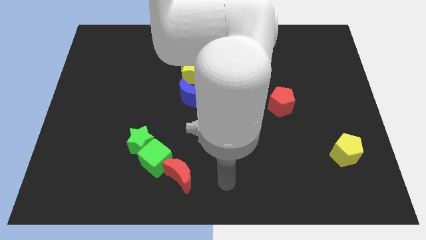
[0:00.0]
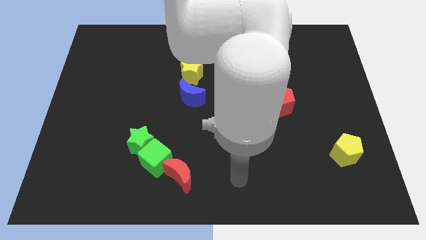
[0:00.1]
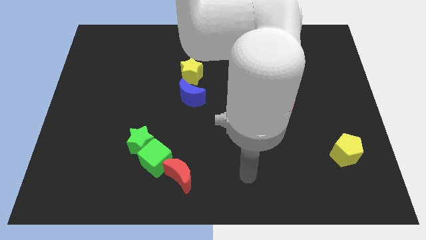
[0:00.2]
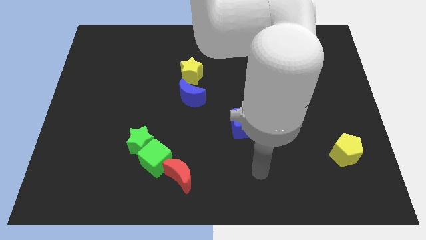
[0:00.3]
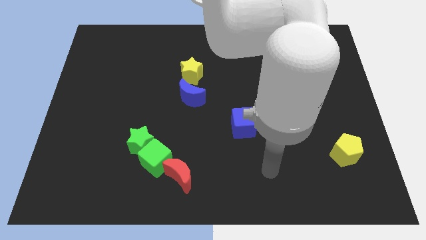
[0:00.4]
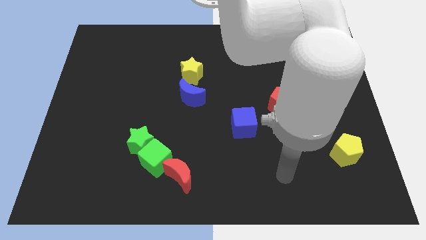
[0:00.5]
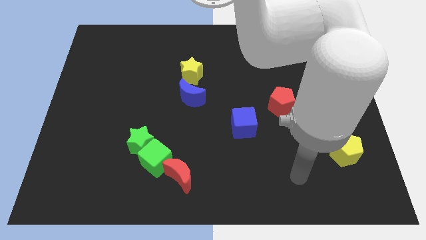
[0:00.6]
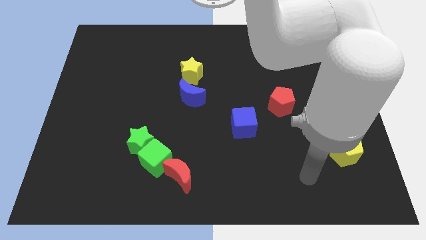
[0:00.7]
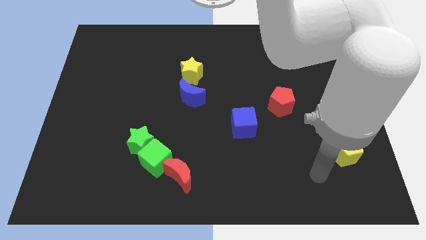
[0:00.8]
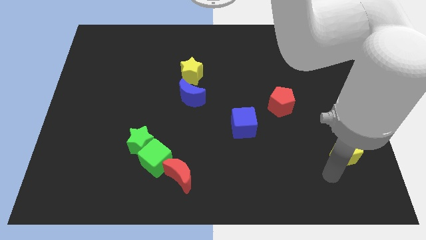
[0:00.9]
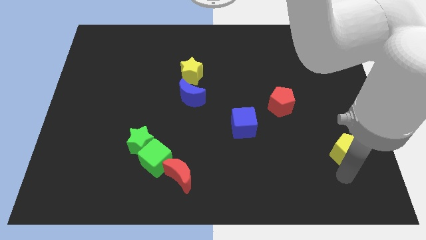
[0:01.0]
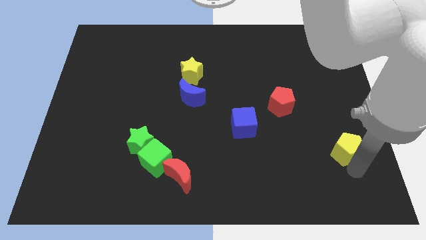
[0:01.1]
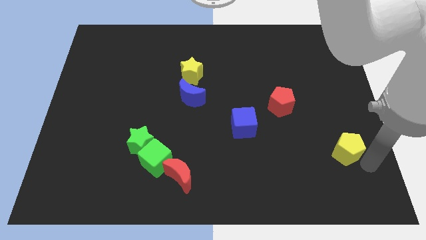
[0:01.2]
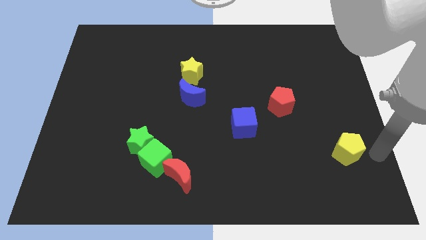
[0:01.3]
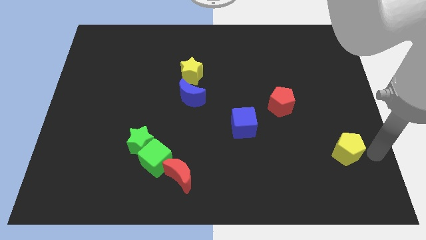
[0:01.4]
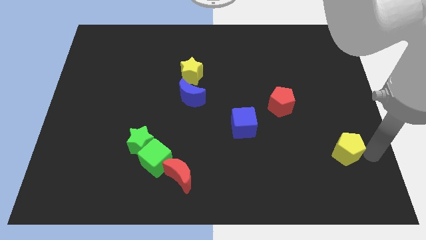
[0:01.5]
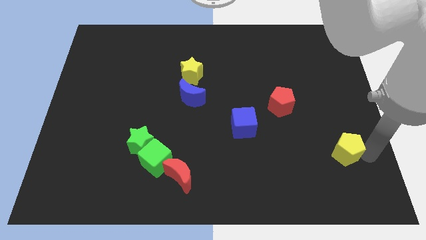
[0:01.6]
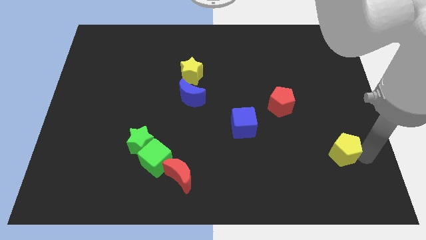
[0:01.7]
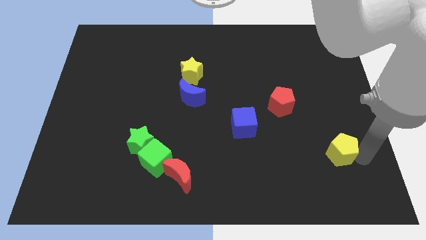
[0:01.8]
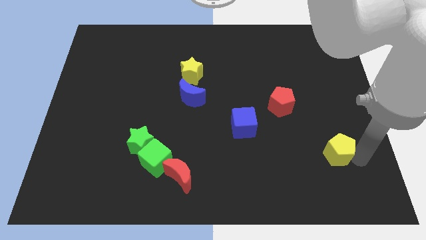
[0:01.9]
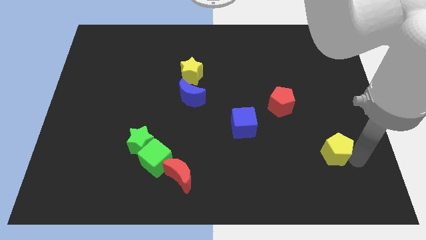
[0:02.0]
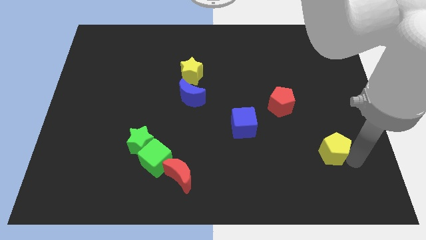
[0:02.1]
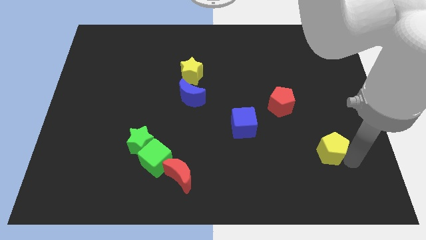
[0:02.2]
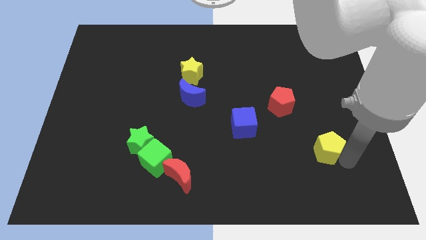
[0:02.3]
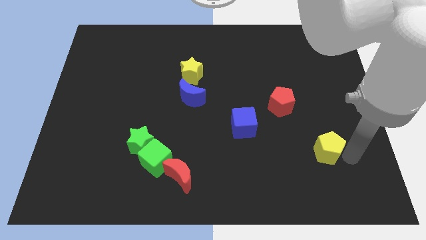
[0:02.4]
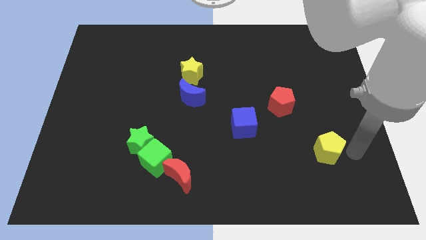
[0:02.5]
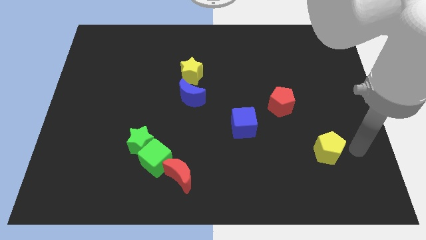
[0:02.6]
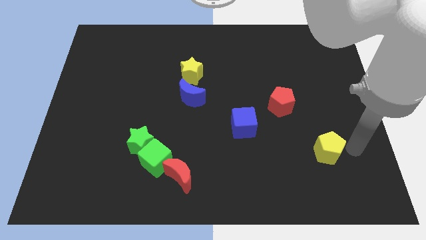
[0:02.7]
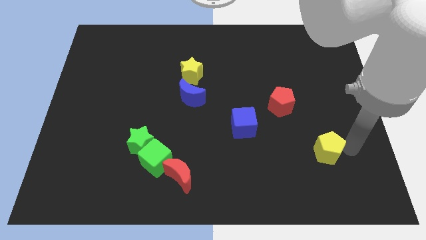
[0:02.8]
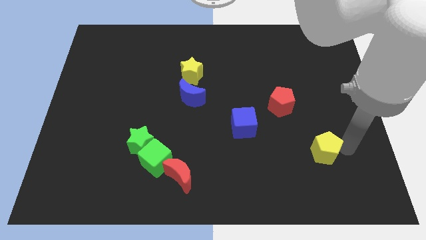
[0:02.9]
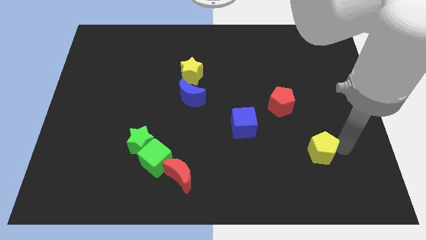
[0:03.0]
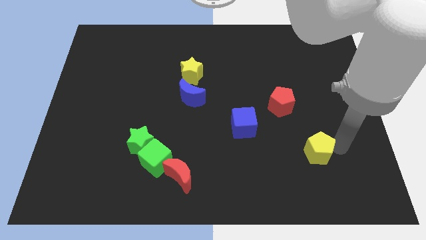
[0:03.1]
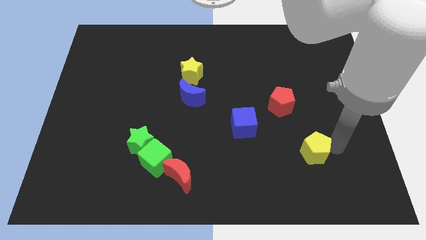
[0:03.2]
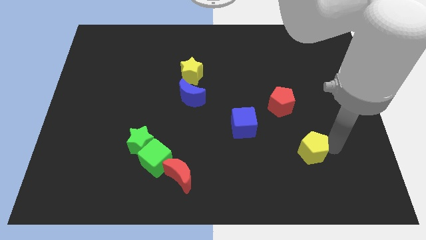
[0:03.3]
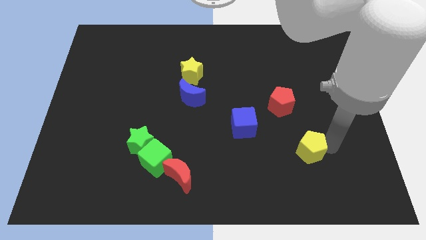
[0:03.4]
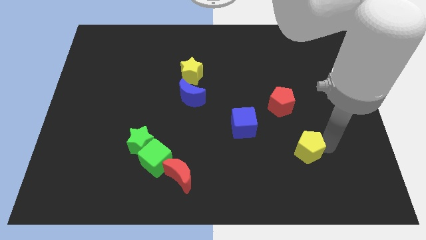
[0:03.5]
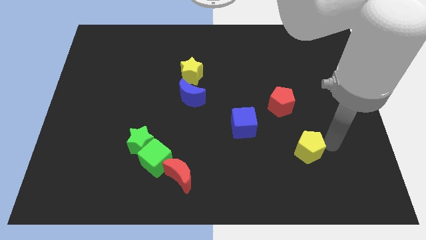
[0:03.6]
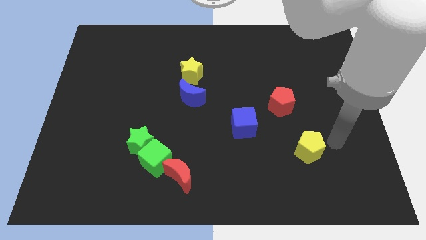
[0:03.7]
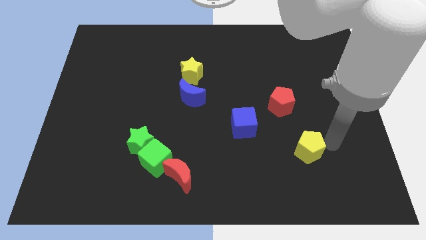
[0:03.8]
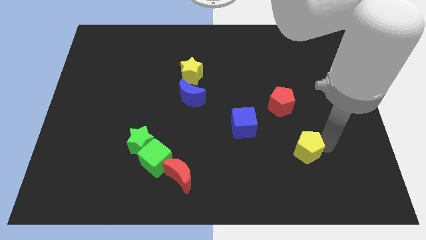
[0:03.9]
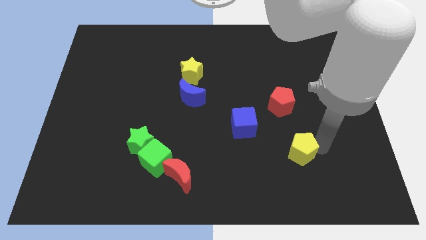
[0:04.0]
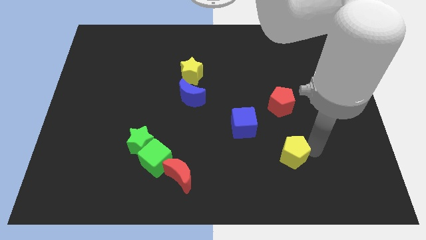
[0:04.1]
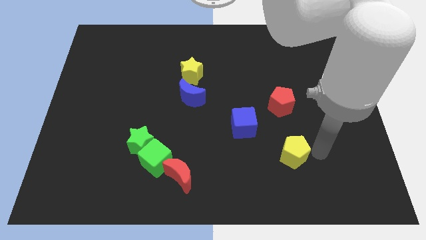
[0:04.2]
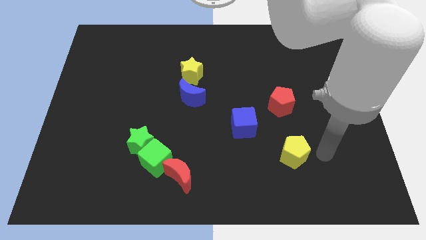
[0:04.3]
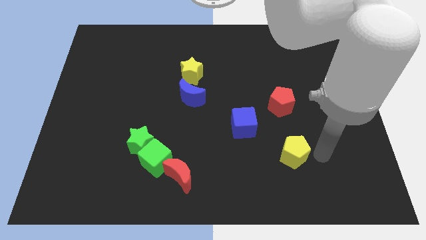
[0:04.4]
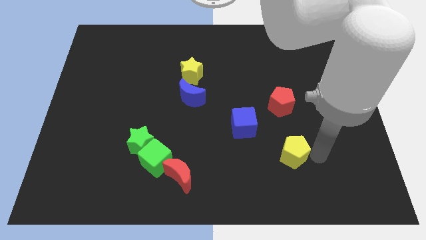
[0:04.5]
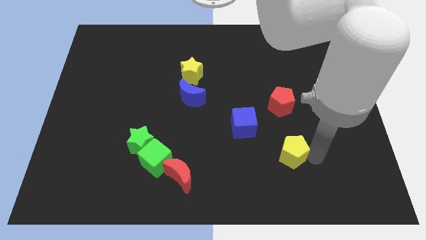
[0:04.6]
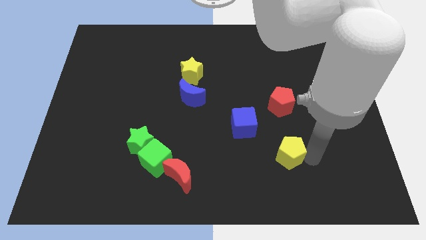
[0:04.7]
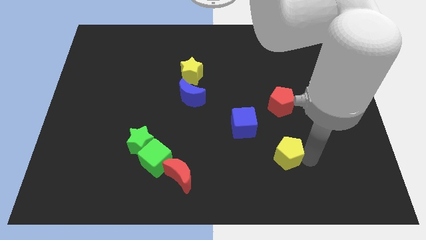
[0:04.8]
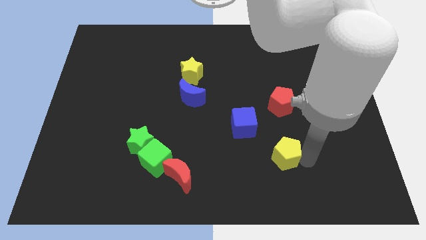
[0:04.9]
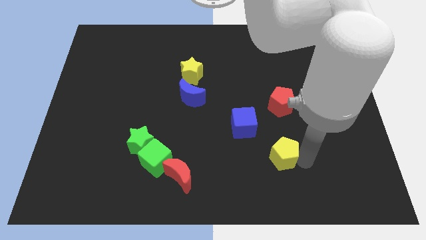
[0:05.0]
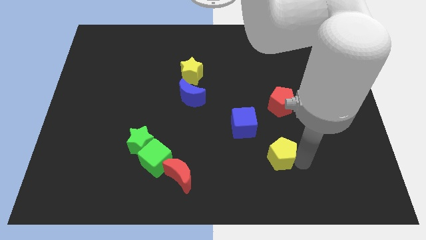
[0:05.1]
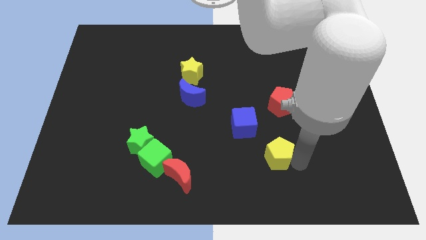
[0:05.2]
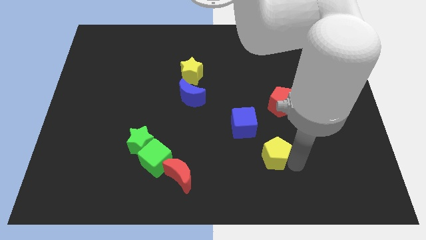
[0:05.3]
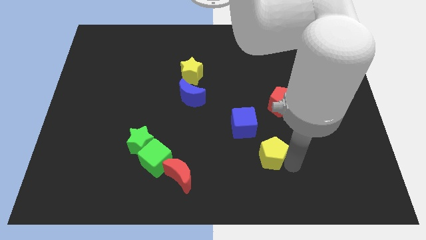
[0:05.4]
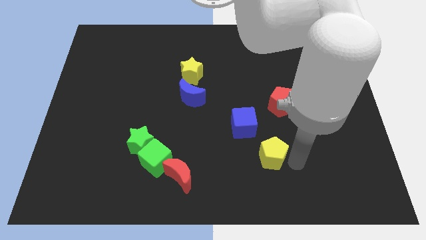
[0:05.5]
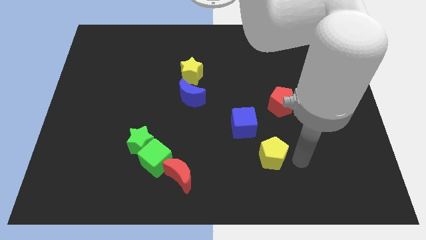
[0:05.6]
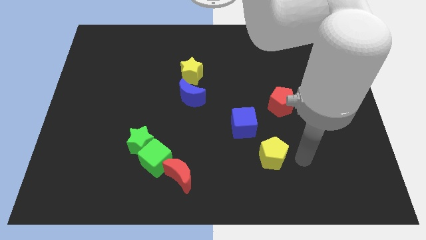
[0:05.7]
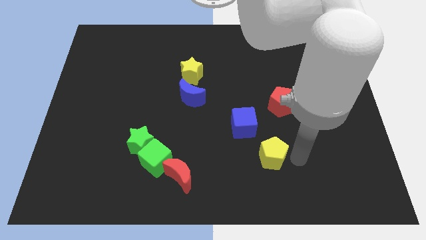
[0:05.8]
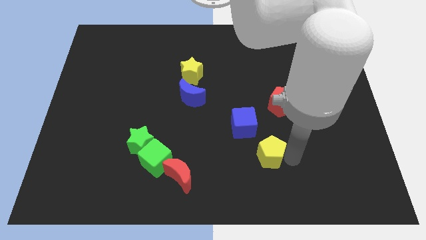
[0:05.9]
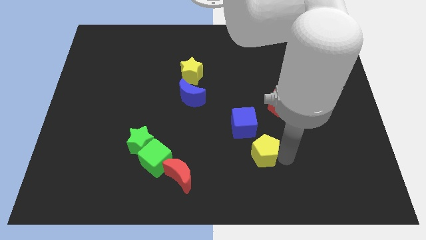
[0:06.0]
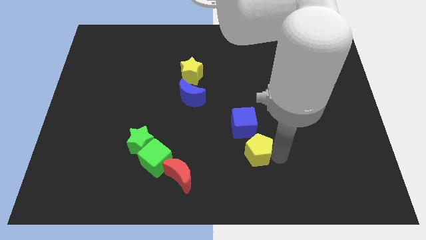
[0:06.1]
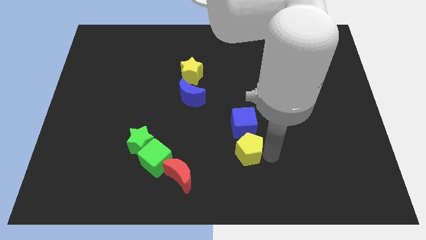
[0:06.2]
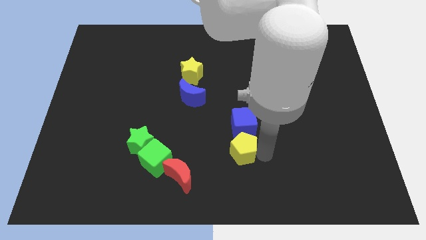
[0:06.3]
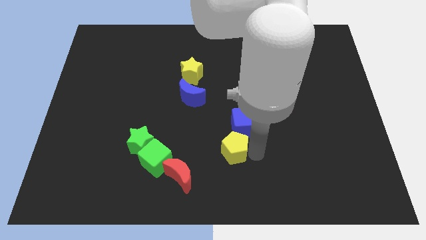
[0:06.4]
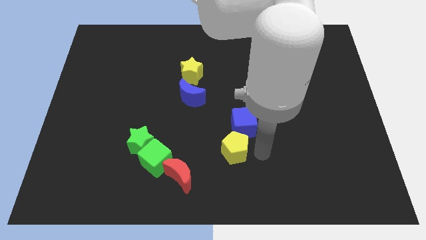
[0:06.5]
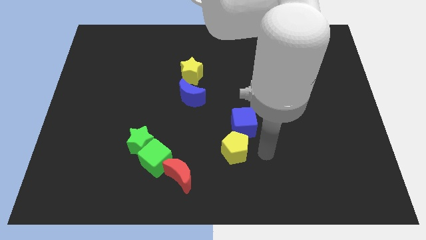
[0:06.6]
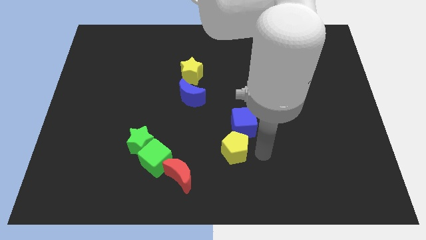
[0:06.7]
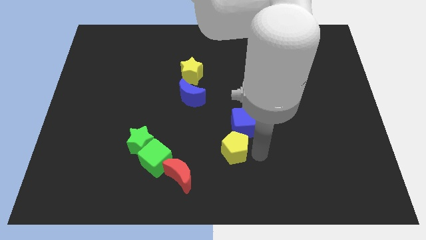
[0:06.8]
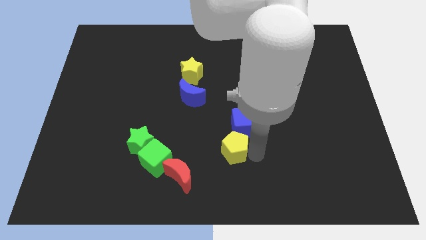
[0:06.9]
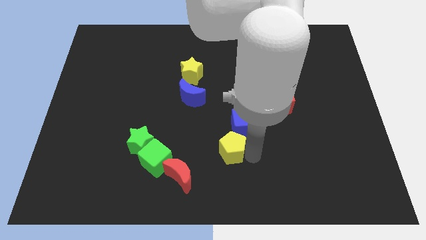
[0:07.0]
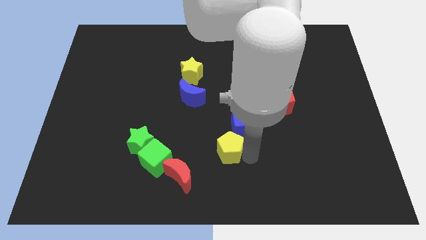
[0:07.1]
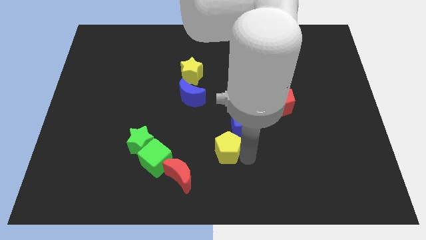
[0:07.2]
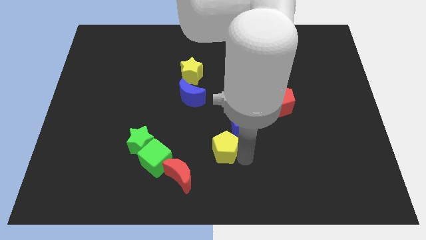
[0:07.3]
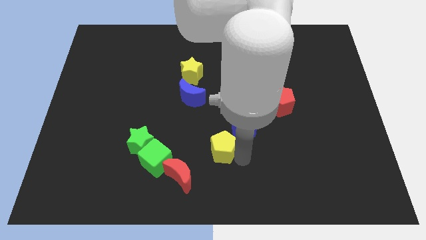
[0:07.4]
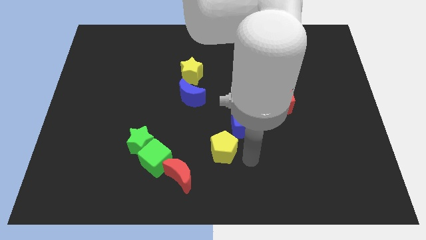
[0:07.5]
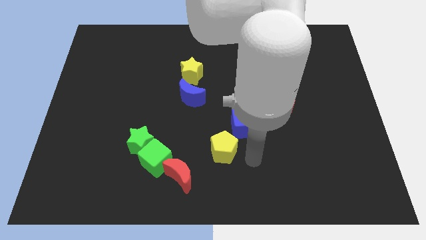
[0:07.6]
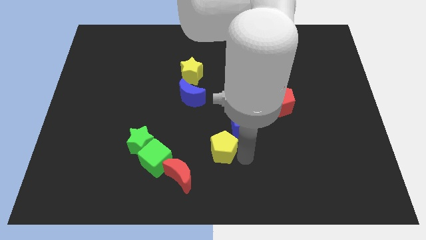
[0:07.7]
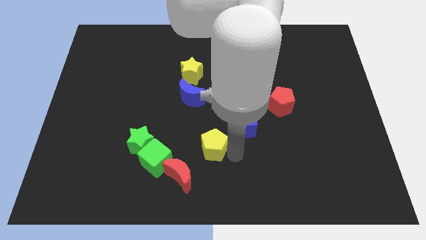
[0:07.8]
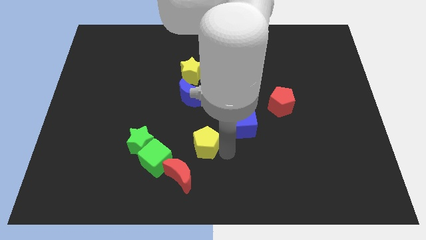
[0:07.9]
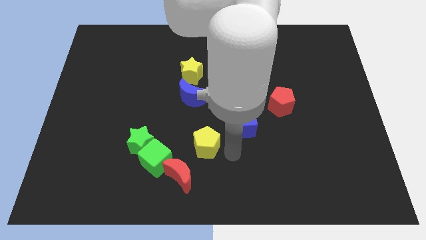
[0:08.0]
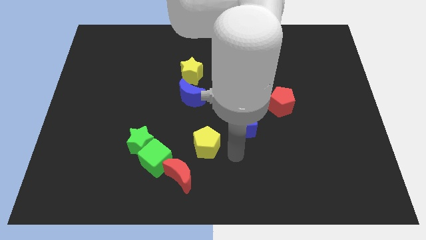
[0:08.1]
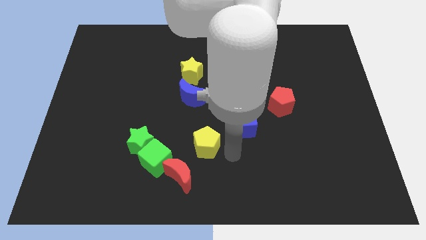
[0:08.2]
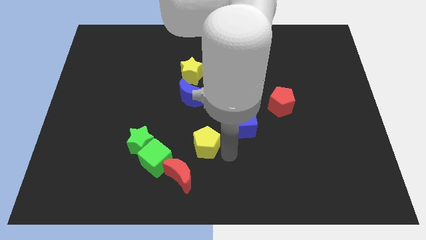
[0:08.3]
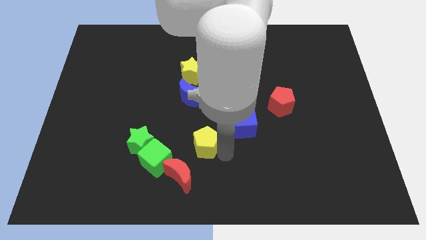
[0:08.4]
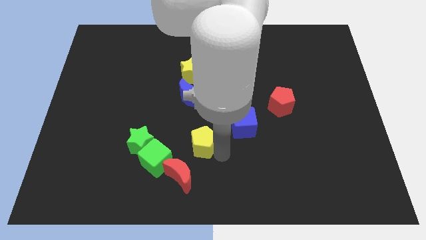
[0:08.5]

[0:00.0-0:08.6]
put the yellow pentagon to the top right side of the green cube
